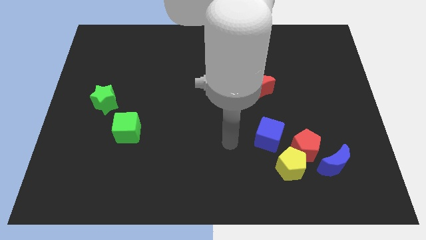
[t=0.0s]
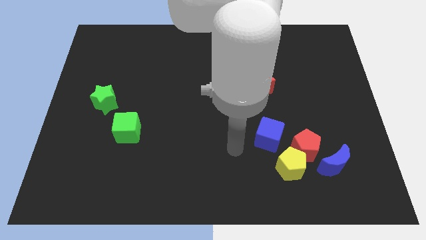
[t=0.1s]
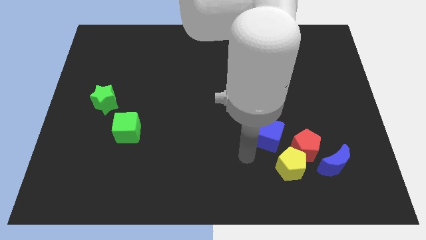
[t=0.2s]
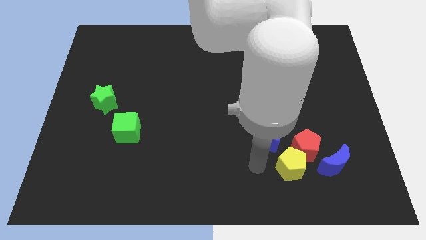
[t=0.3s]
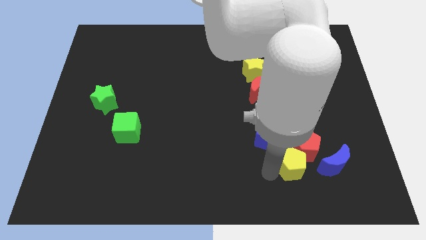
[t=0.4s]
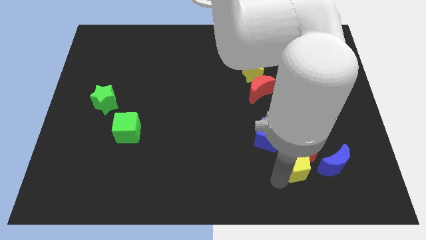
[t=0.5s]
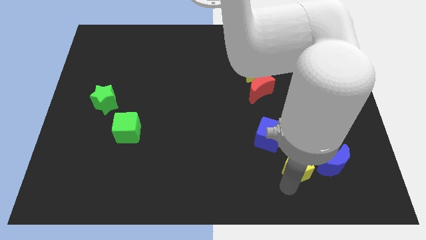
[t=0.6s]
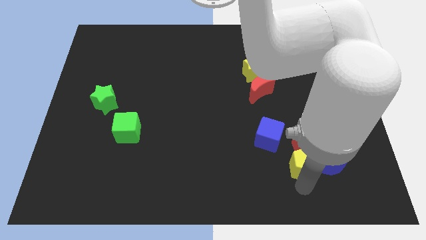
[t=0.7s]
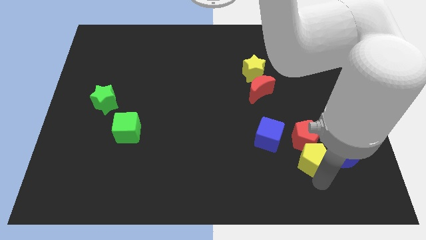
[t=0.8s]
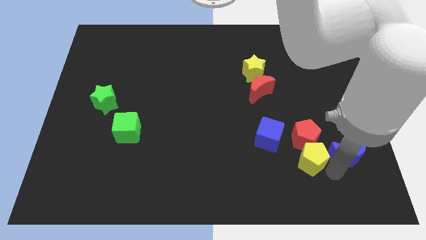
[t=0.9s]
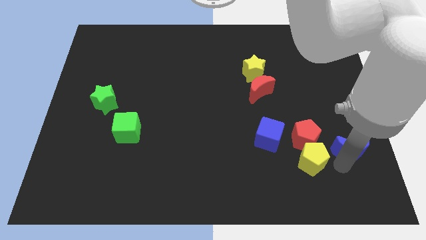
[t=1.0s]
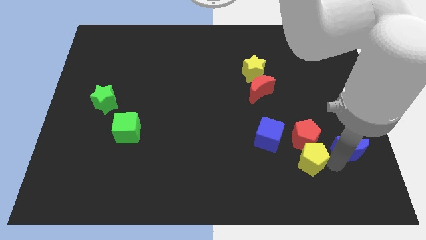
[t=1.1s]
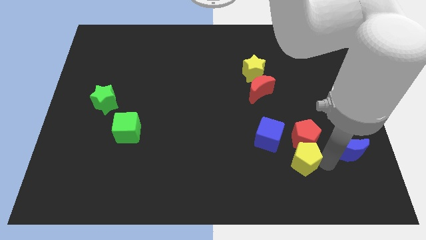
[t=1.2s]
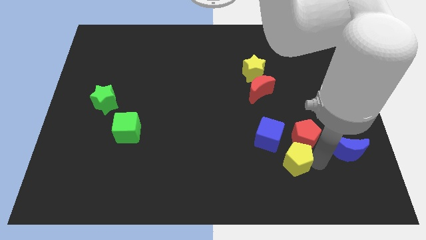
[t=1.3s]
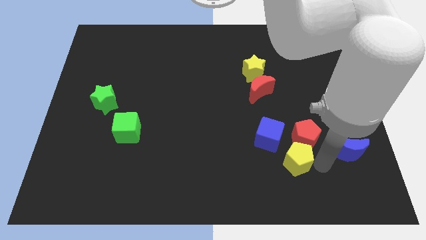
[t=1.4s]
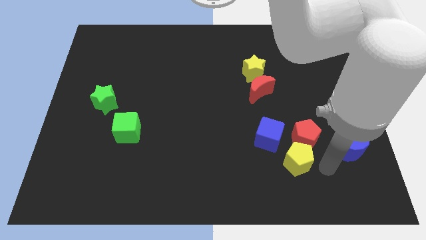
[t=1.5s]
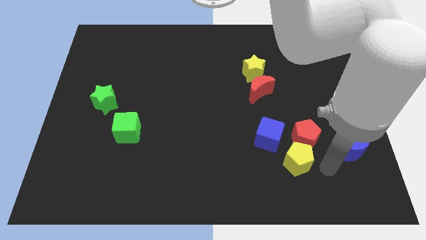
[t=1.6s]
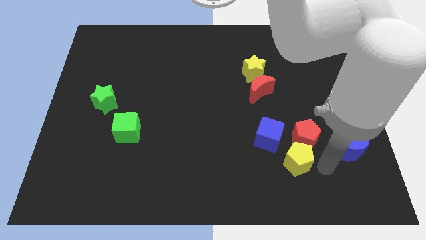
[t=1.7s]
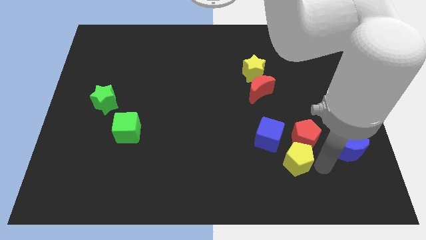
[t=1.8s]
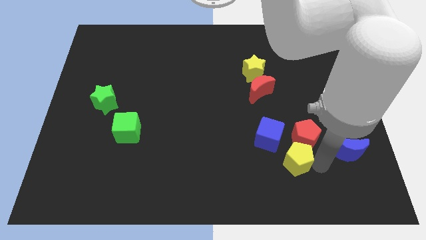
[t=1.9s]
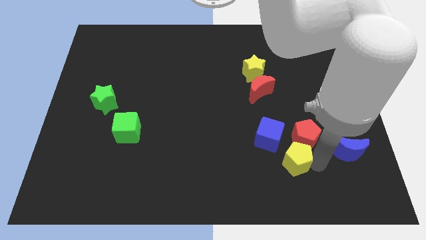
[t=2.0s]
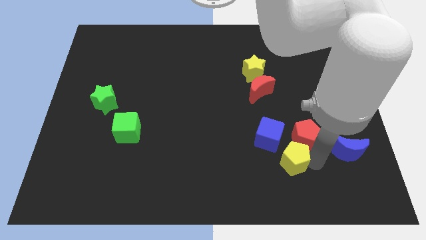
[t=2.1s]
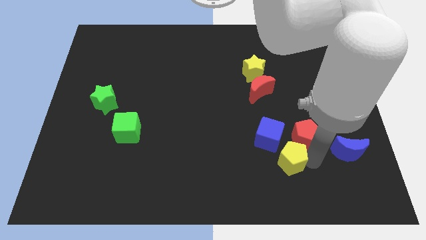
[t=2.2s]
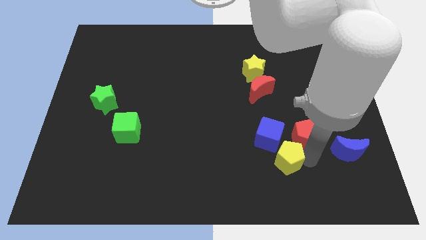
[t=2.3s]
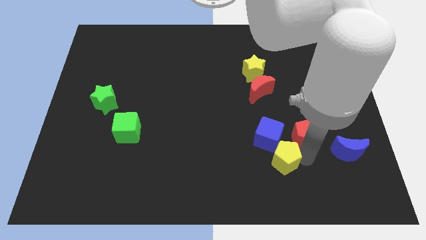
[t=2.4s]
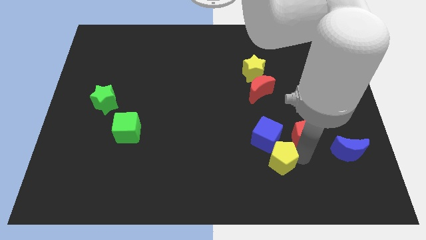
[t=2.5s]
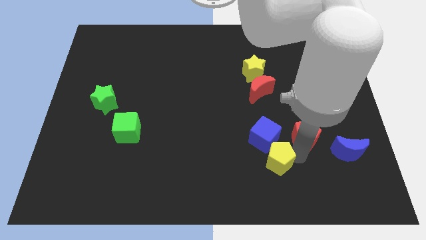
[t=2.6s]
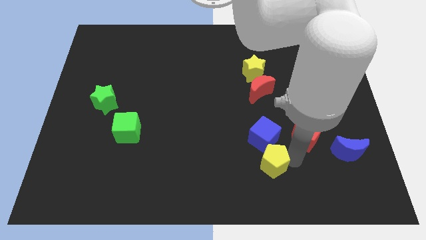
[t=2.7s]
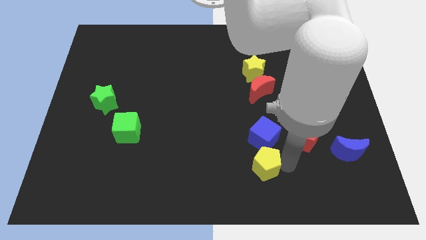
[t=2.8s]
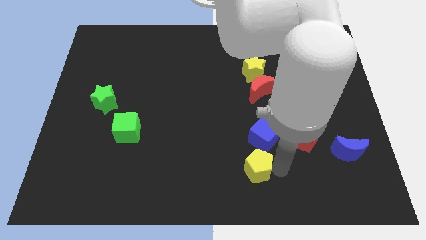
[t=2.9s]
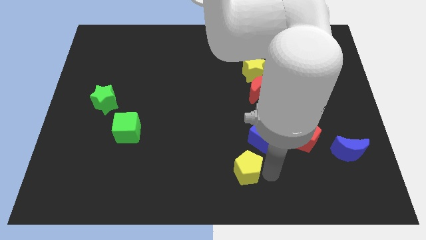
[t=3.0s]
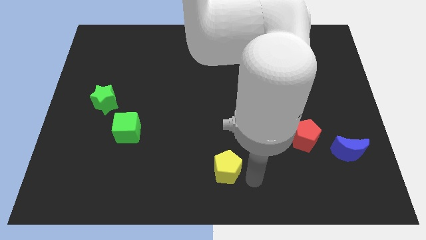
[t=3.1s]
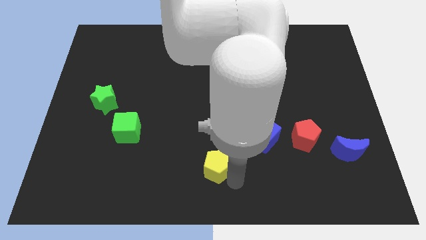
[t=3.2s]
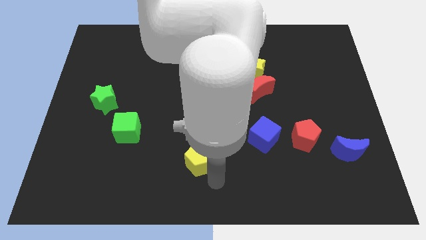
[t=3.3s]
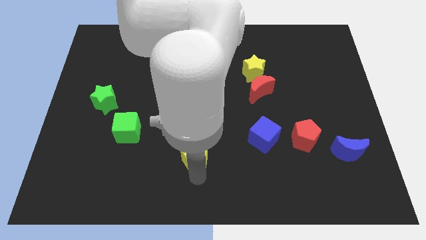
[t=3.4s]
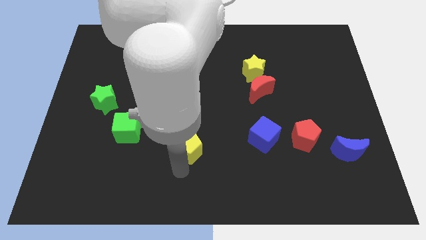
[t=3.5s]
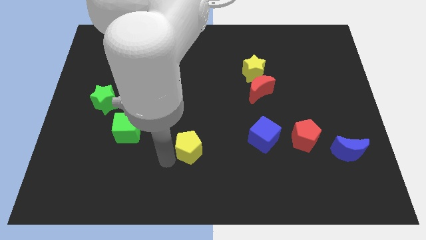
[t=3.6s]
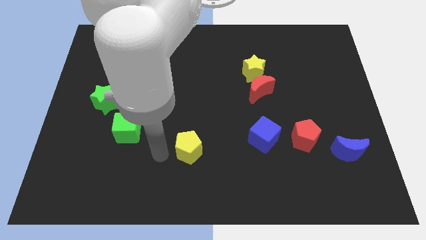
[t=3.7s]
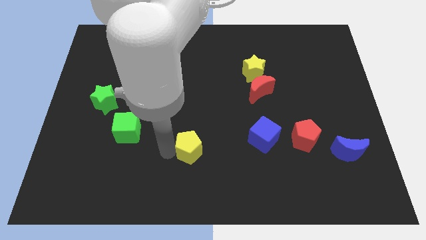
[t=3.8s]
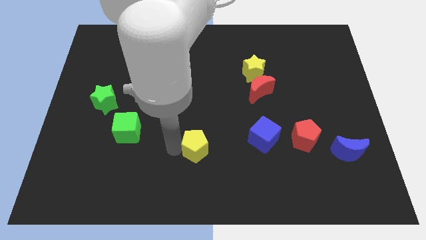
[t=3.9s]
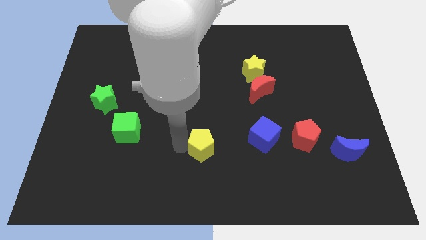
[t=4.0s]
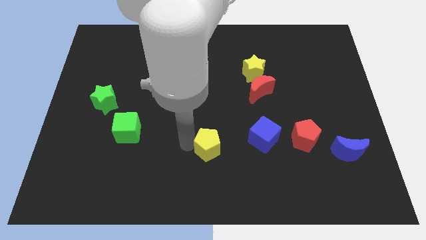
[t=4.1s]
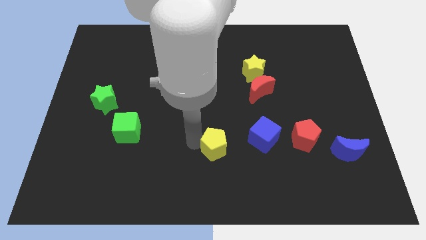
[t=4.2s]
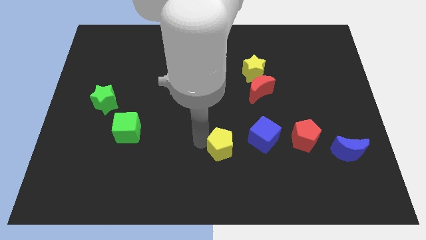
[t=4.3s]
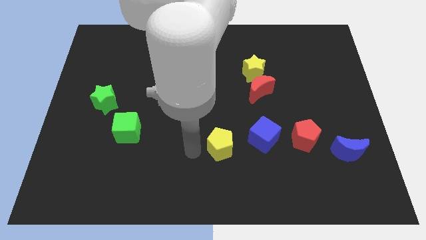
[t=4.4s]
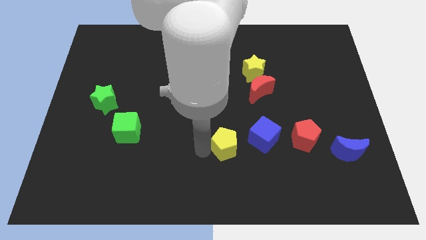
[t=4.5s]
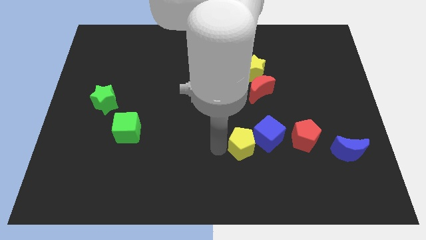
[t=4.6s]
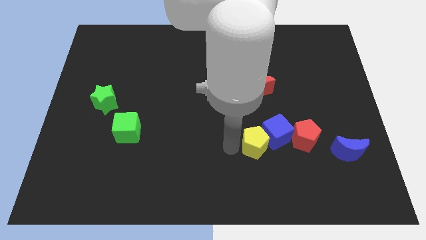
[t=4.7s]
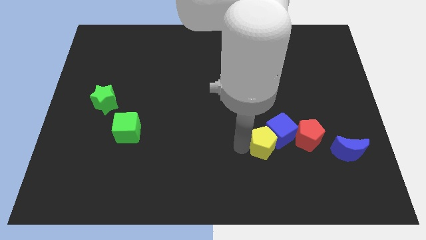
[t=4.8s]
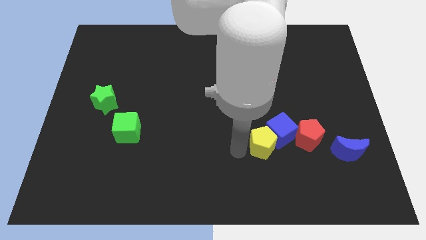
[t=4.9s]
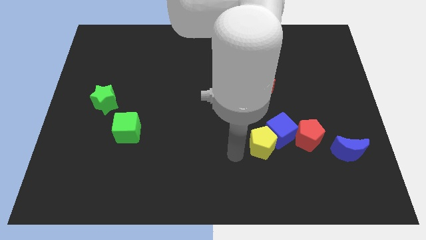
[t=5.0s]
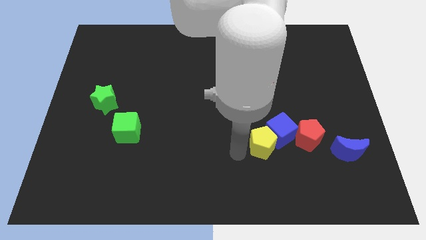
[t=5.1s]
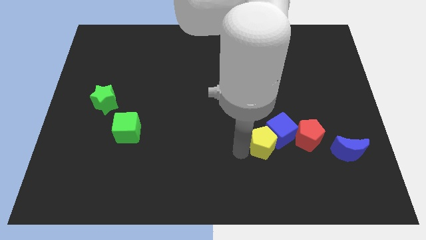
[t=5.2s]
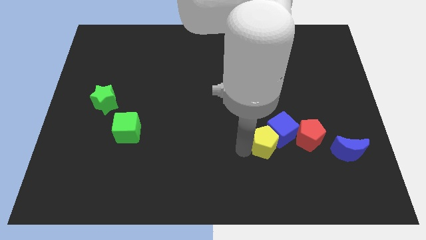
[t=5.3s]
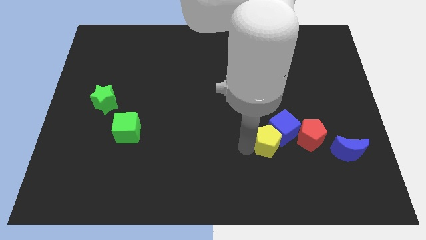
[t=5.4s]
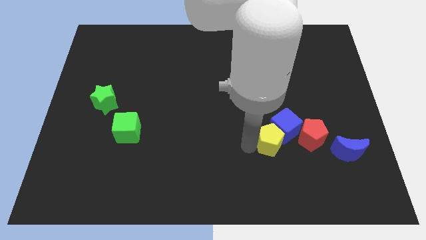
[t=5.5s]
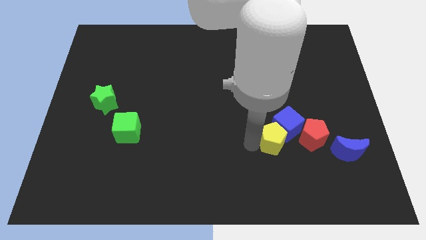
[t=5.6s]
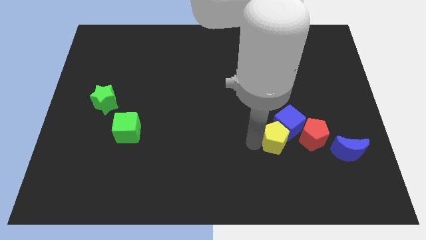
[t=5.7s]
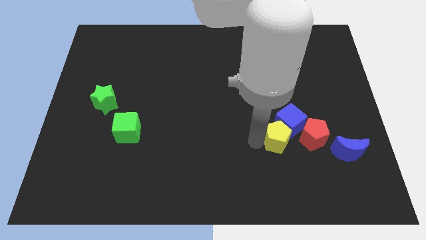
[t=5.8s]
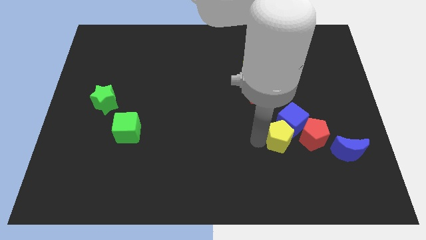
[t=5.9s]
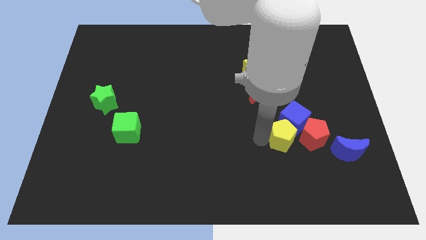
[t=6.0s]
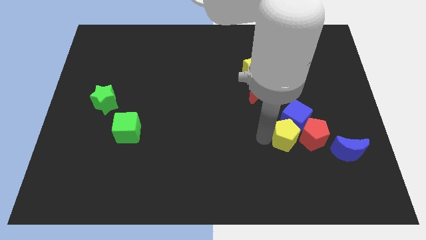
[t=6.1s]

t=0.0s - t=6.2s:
push the yellow pentagon diagonally up and to the left of the red pentagon

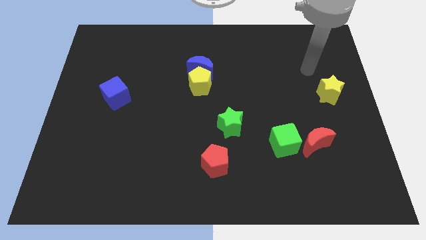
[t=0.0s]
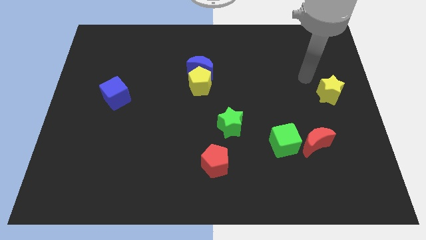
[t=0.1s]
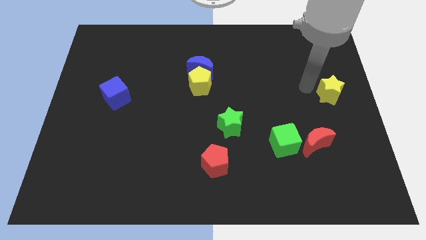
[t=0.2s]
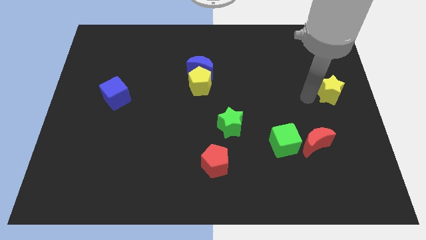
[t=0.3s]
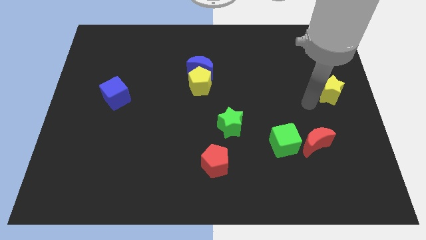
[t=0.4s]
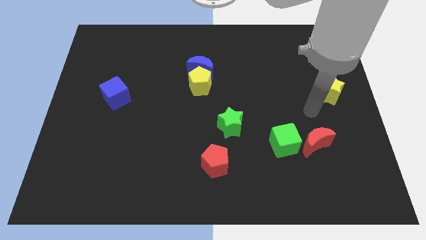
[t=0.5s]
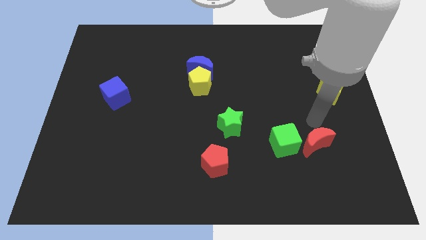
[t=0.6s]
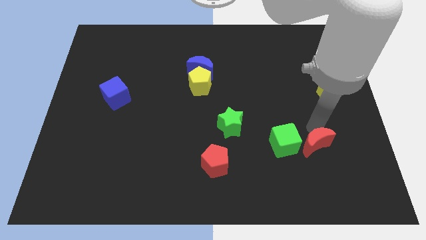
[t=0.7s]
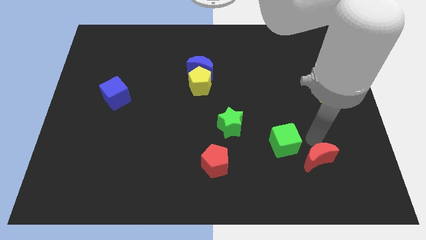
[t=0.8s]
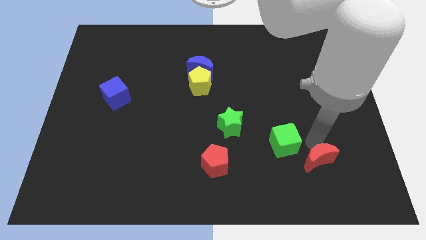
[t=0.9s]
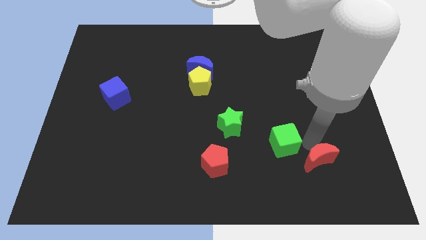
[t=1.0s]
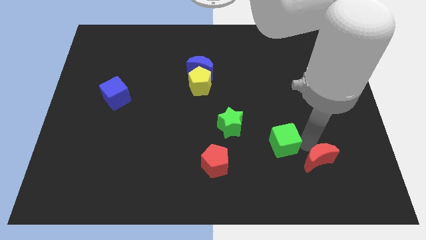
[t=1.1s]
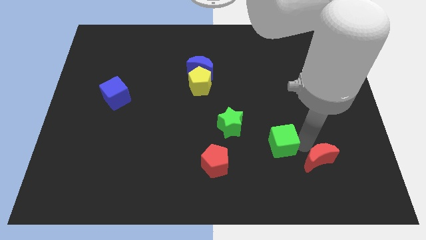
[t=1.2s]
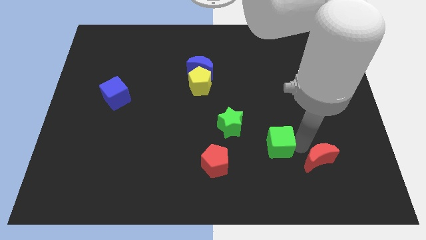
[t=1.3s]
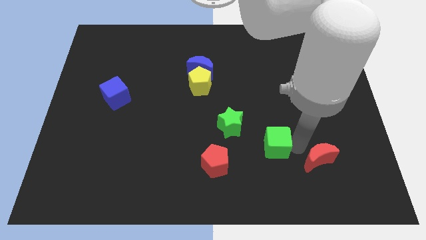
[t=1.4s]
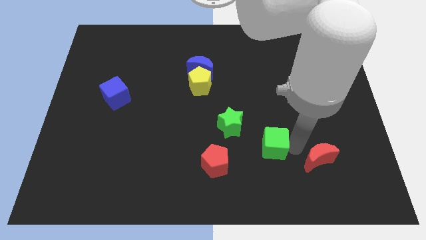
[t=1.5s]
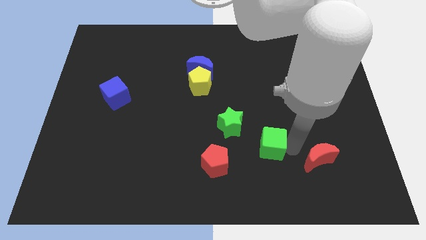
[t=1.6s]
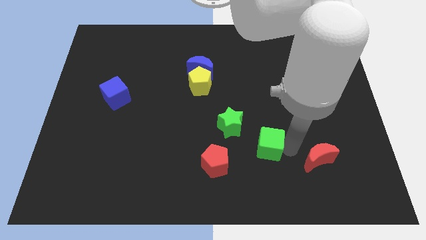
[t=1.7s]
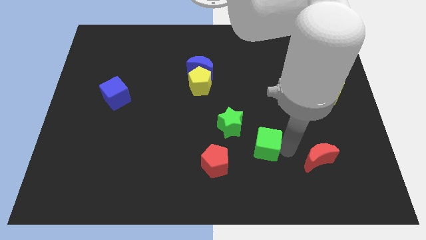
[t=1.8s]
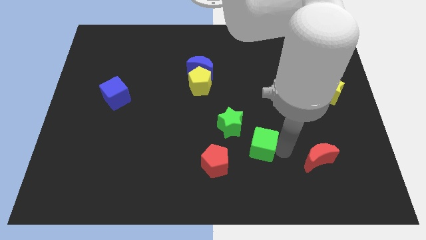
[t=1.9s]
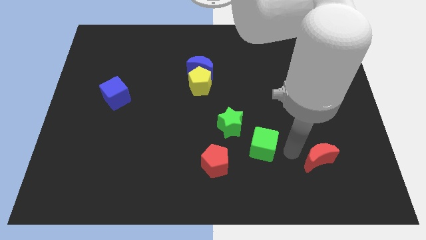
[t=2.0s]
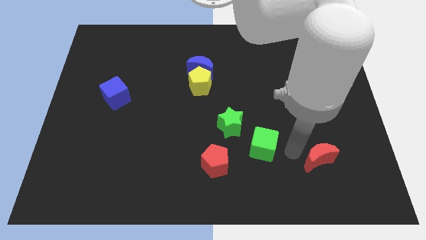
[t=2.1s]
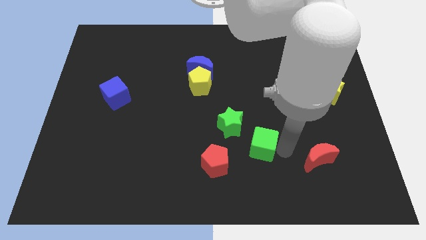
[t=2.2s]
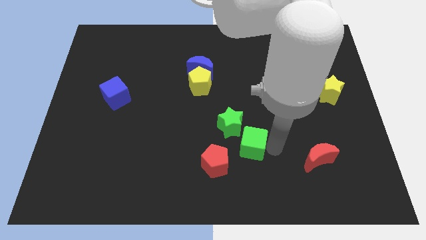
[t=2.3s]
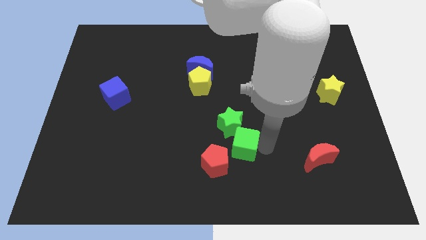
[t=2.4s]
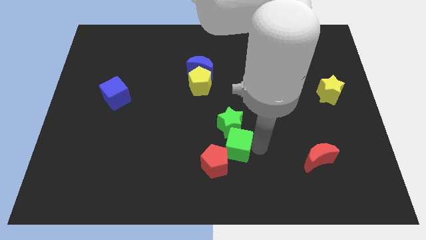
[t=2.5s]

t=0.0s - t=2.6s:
move the green cube to the top side of the red pentagon
